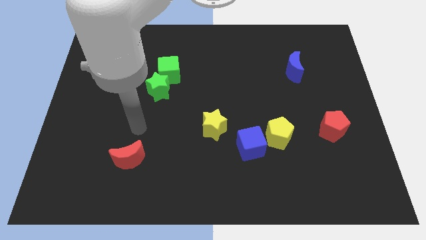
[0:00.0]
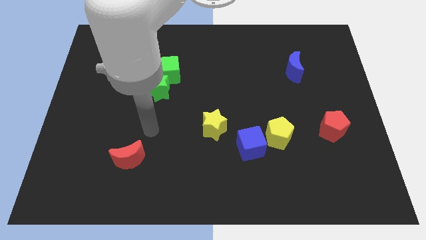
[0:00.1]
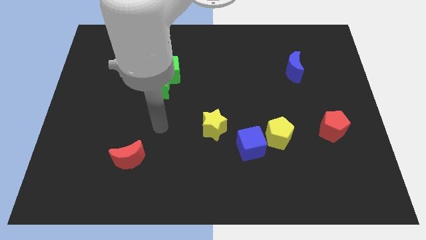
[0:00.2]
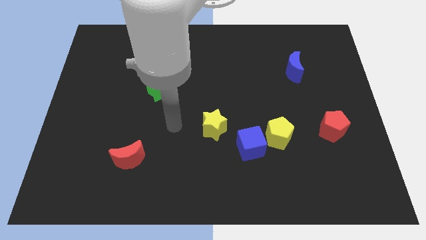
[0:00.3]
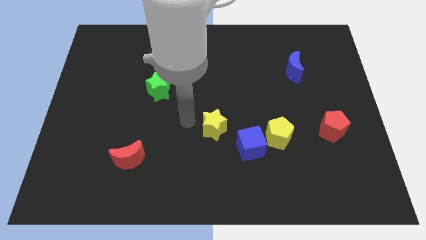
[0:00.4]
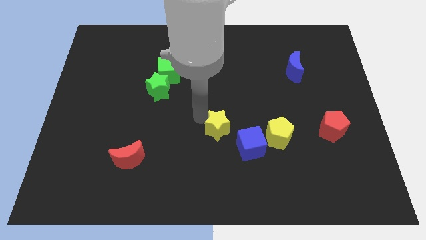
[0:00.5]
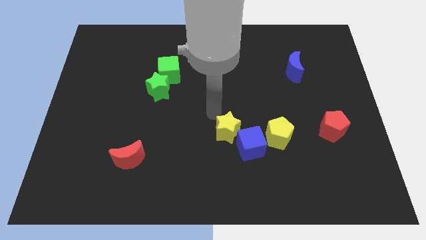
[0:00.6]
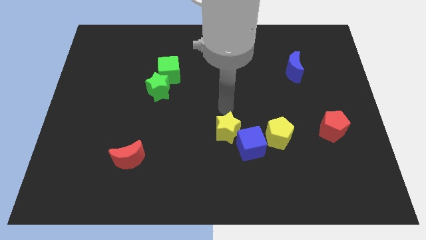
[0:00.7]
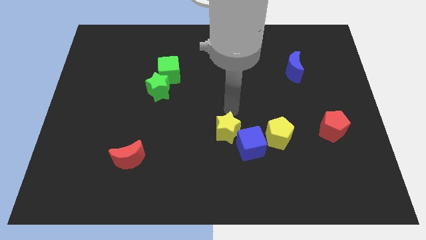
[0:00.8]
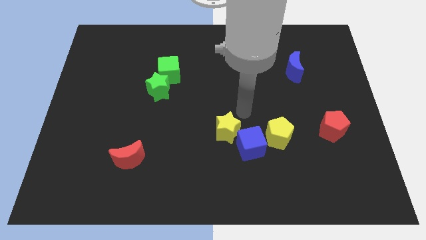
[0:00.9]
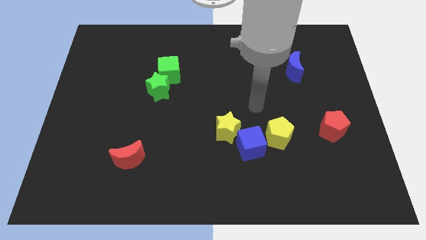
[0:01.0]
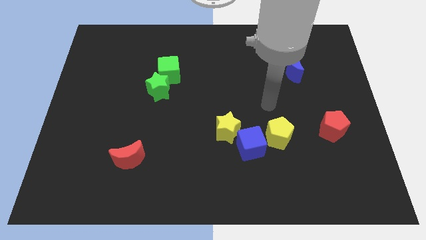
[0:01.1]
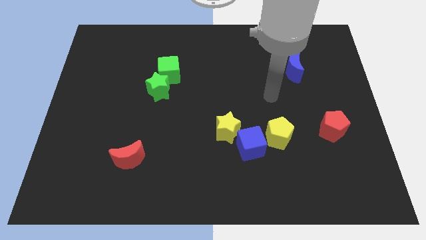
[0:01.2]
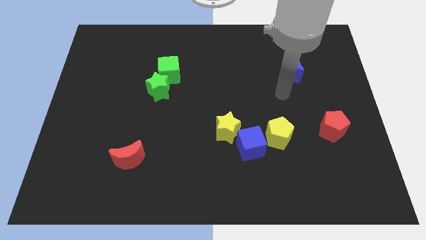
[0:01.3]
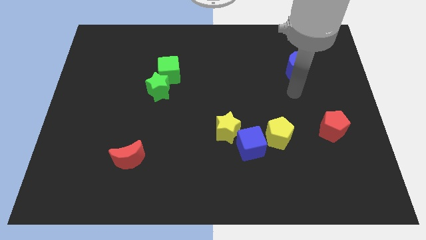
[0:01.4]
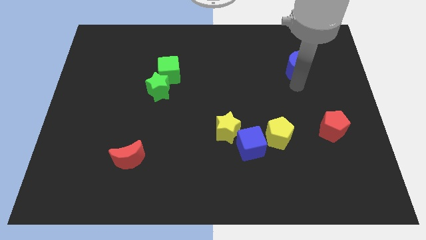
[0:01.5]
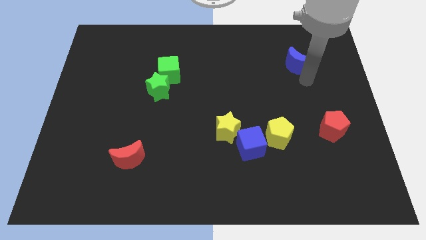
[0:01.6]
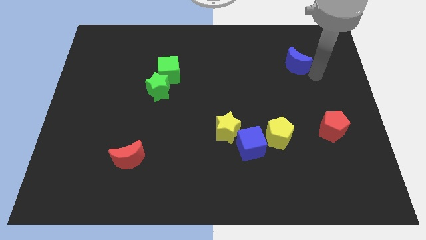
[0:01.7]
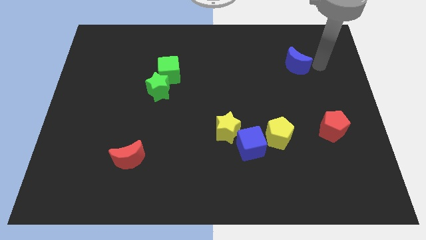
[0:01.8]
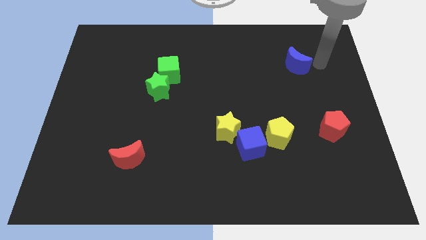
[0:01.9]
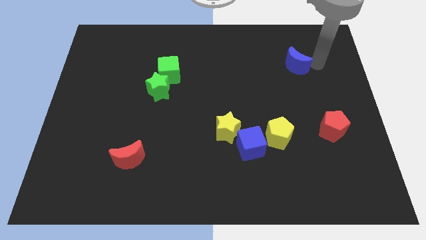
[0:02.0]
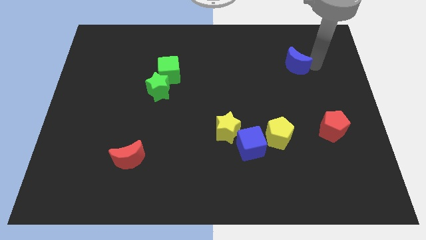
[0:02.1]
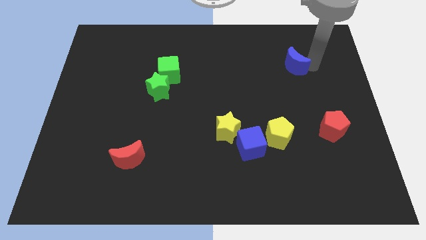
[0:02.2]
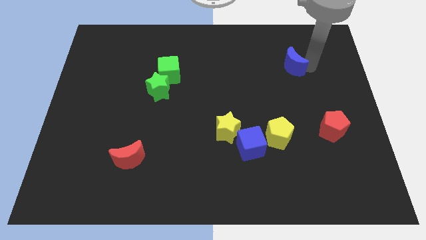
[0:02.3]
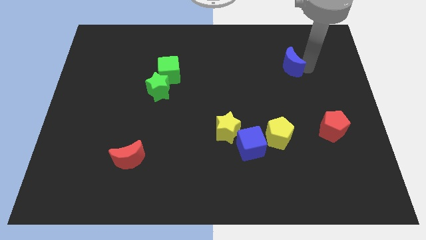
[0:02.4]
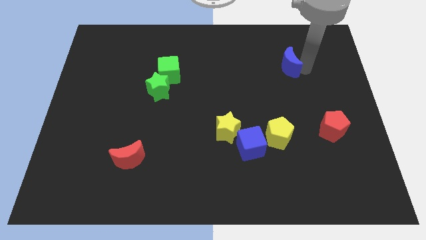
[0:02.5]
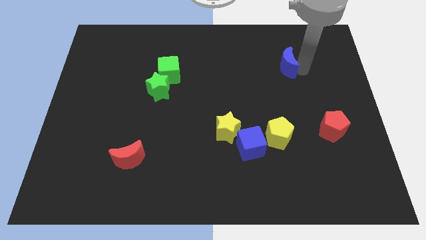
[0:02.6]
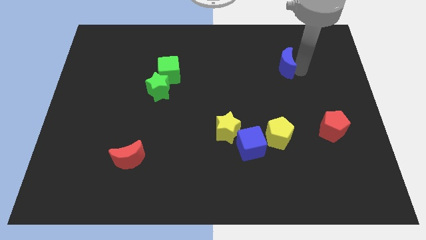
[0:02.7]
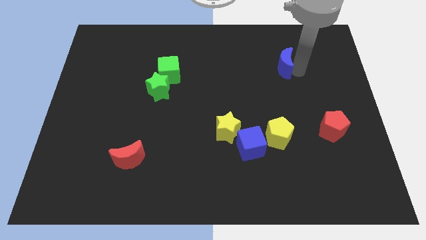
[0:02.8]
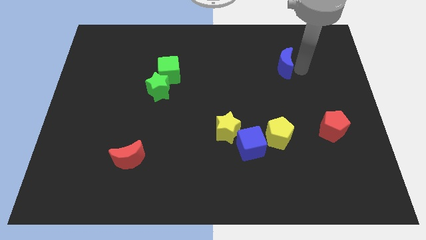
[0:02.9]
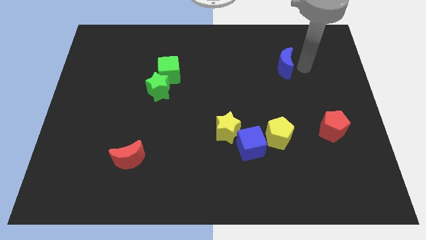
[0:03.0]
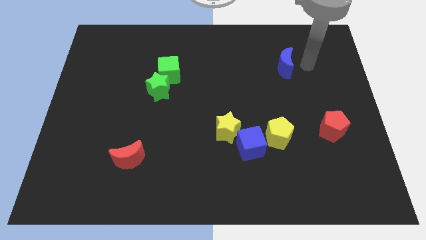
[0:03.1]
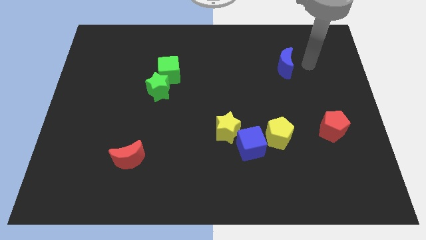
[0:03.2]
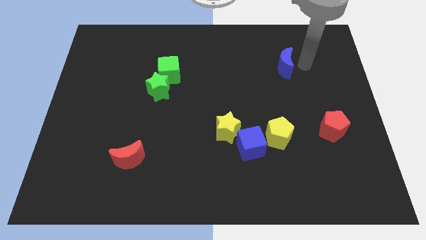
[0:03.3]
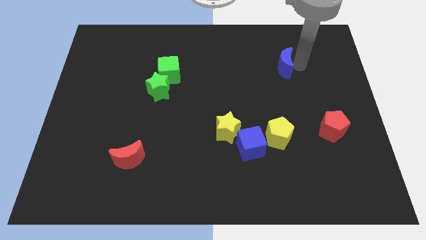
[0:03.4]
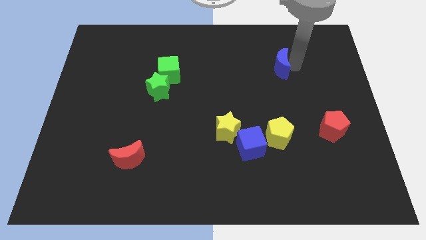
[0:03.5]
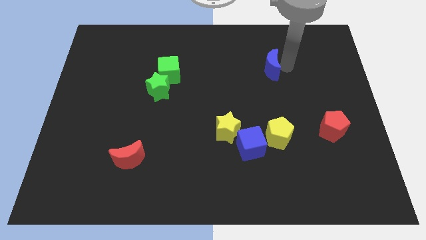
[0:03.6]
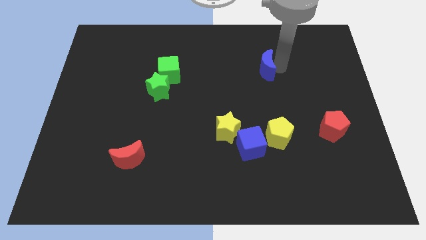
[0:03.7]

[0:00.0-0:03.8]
slightly slide the blue moon to the left

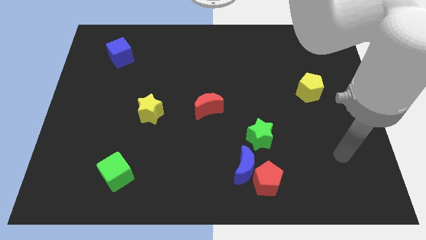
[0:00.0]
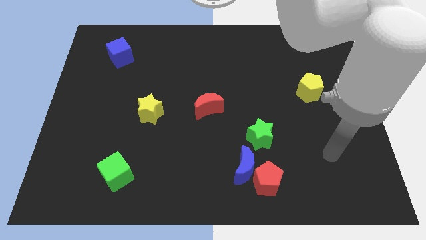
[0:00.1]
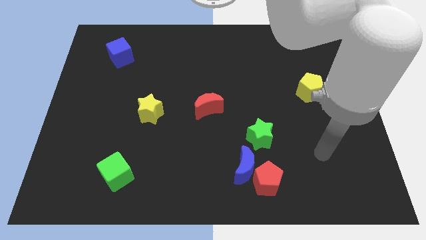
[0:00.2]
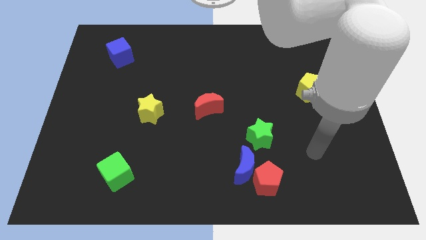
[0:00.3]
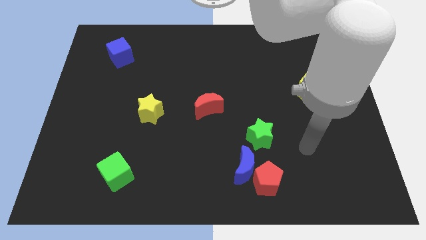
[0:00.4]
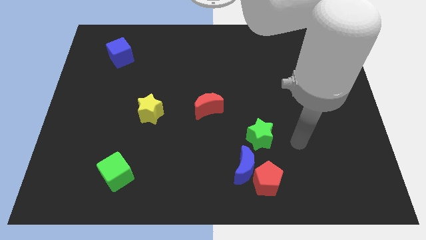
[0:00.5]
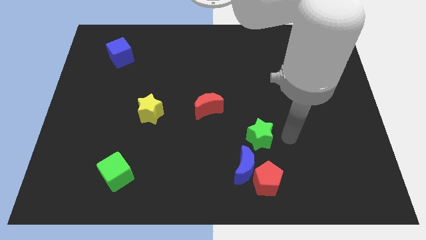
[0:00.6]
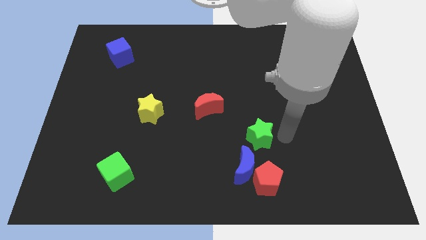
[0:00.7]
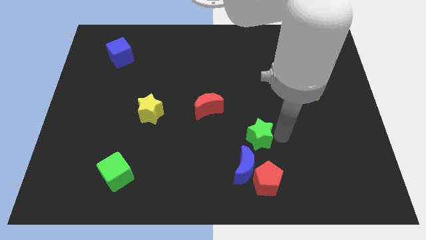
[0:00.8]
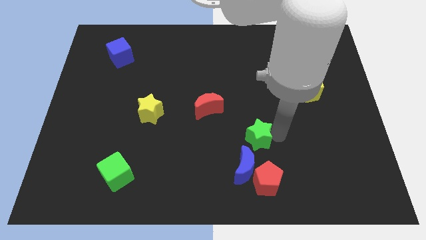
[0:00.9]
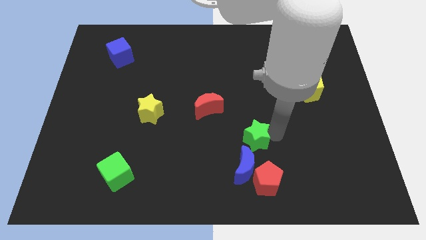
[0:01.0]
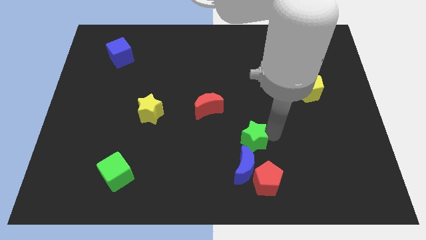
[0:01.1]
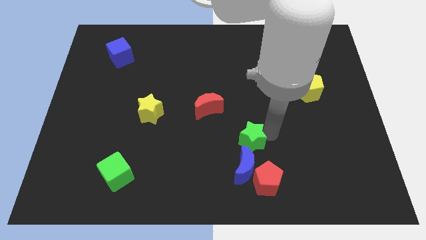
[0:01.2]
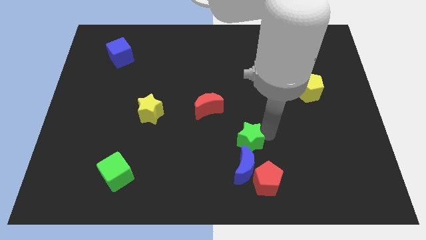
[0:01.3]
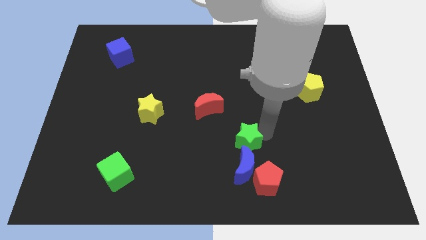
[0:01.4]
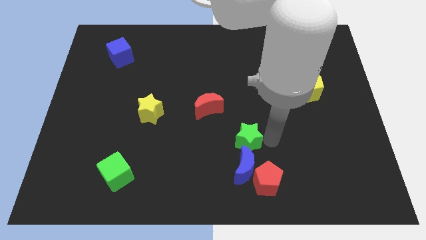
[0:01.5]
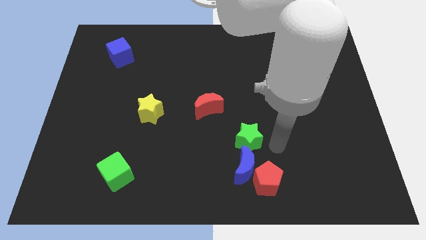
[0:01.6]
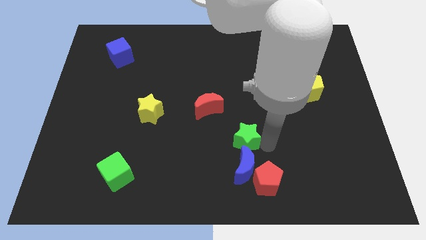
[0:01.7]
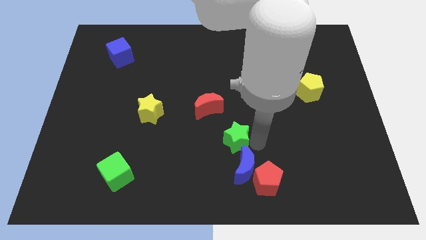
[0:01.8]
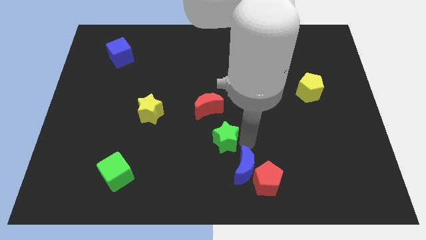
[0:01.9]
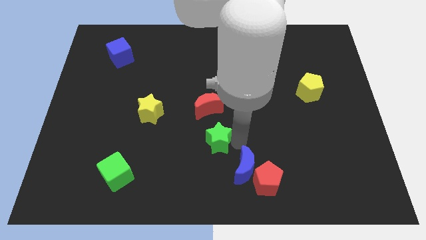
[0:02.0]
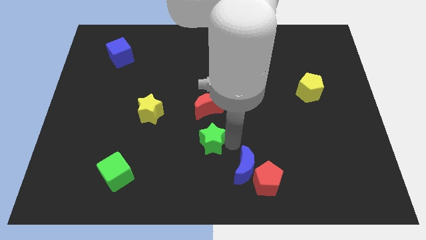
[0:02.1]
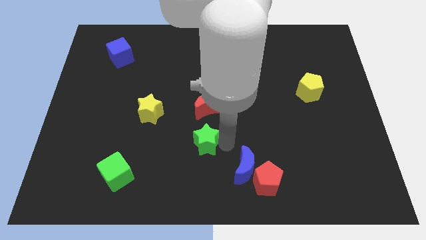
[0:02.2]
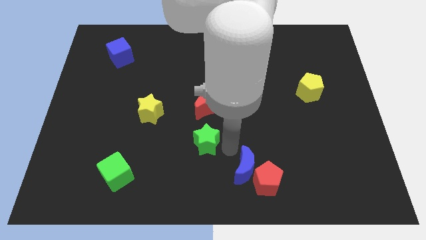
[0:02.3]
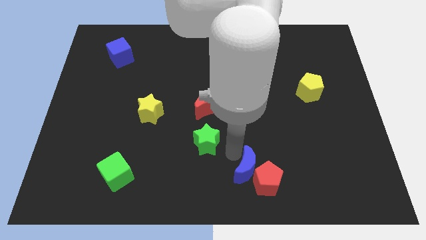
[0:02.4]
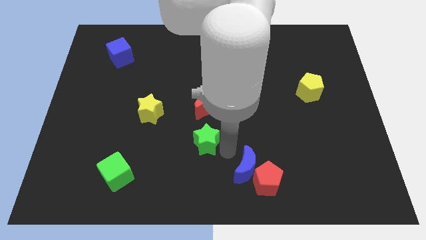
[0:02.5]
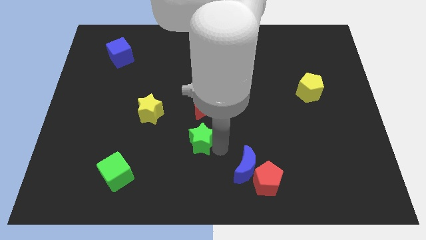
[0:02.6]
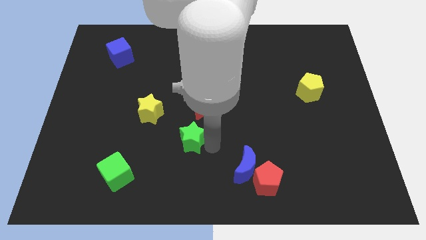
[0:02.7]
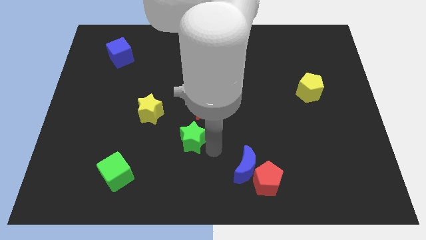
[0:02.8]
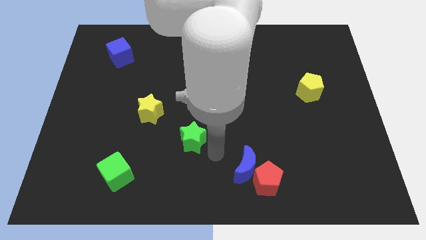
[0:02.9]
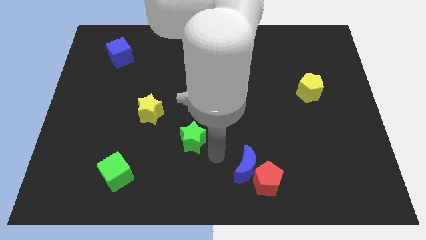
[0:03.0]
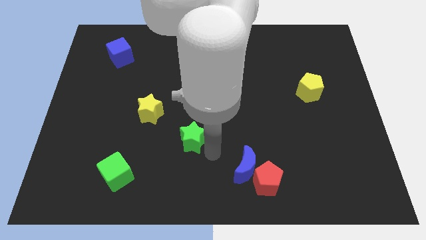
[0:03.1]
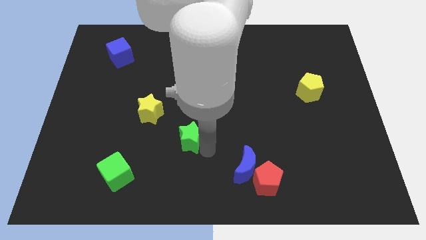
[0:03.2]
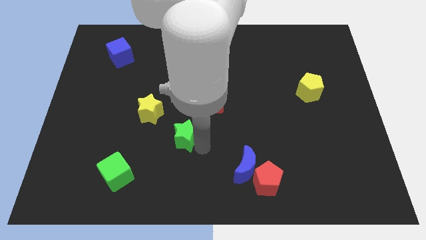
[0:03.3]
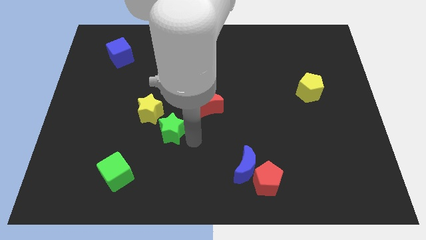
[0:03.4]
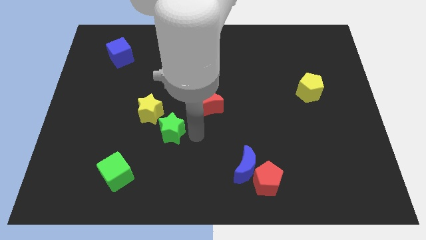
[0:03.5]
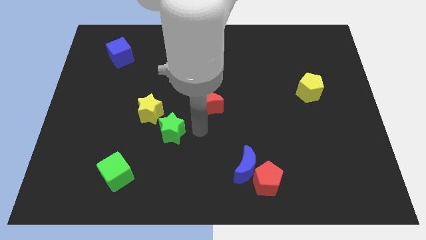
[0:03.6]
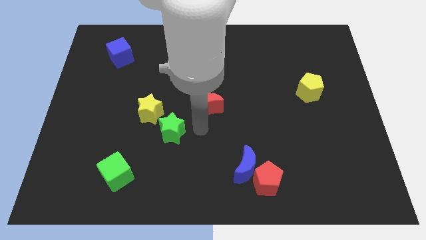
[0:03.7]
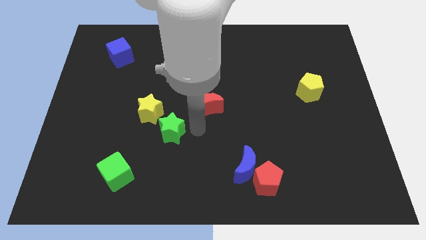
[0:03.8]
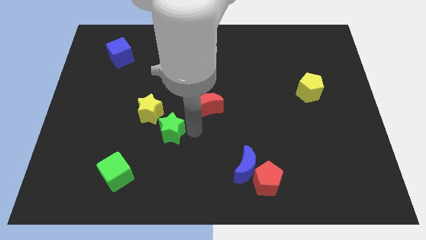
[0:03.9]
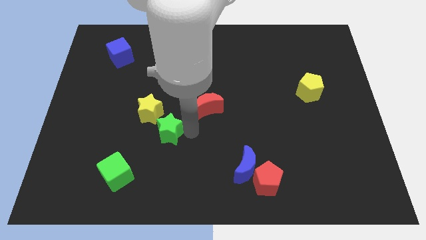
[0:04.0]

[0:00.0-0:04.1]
move the green star left

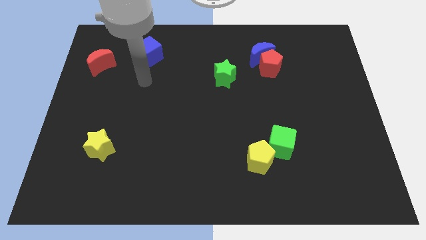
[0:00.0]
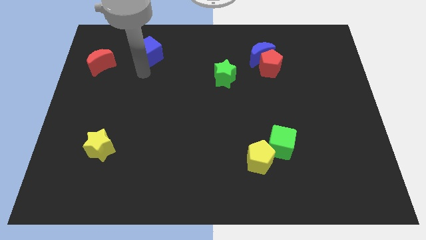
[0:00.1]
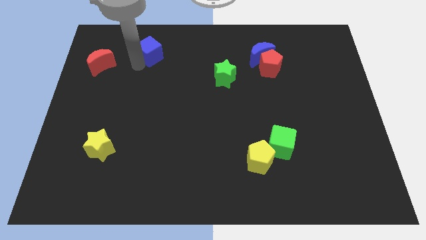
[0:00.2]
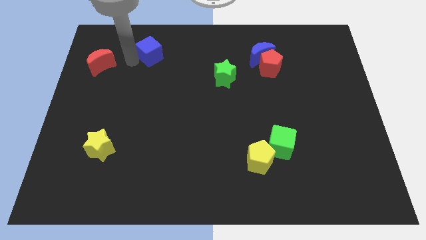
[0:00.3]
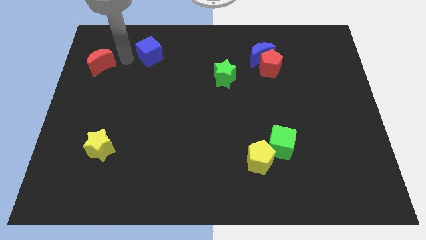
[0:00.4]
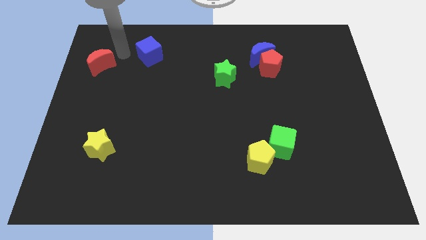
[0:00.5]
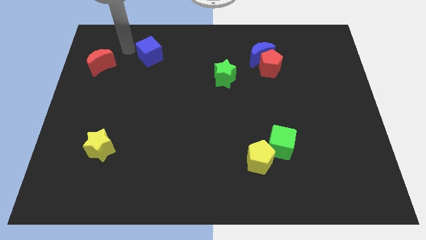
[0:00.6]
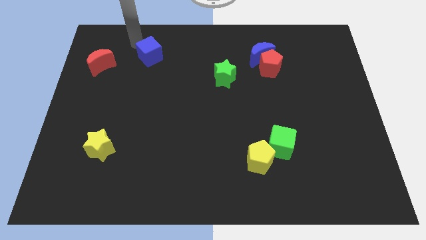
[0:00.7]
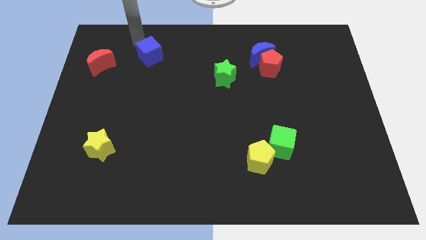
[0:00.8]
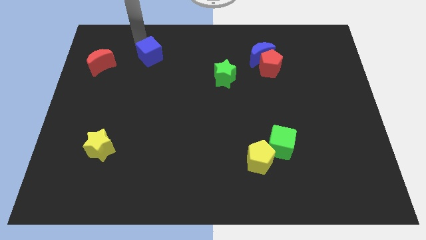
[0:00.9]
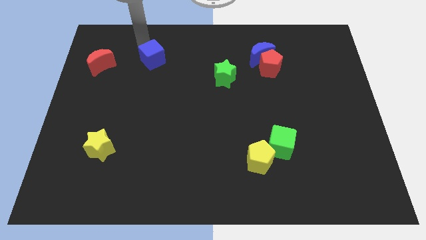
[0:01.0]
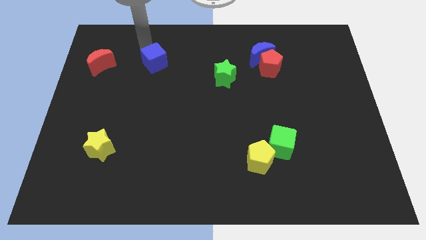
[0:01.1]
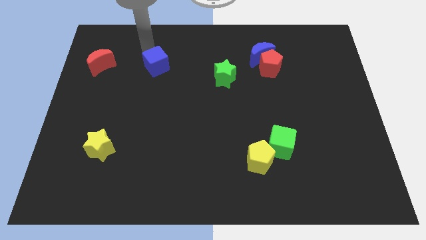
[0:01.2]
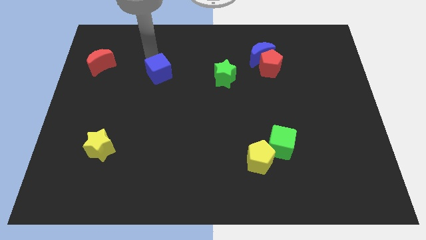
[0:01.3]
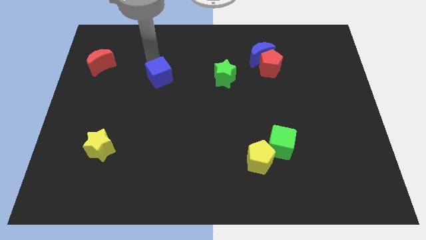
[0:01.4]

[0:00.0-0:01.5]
push the blue cube a little bit down and right diagonally
